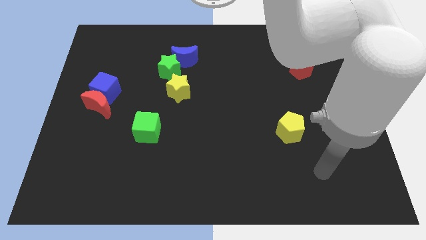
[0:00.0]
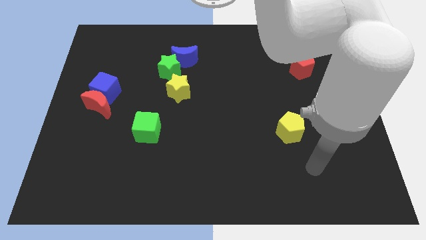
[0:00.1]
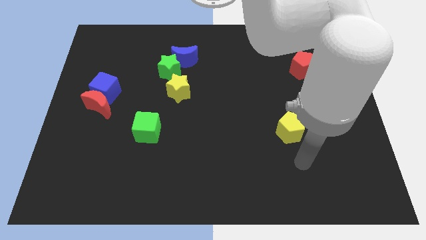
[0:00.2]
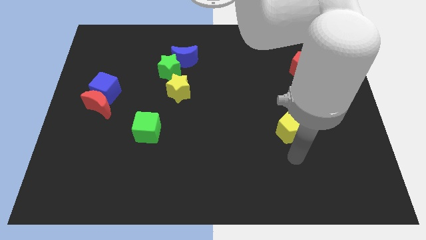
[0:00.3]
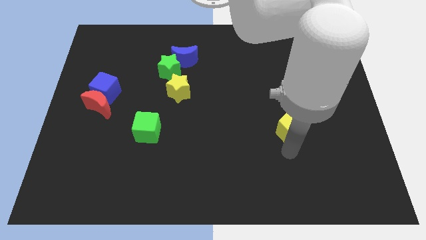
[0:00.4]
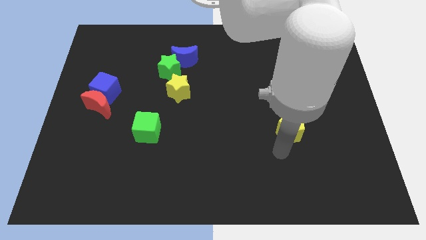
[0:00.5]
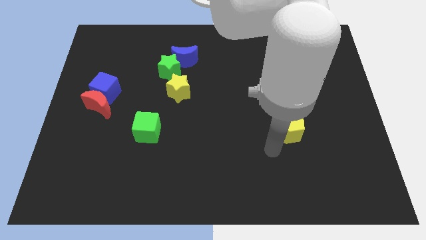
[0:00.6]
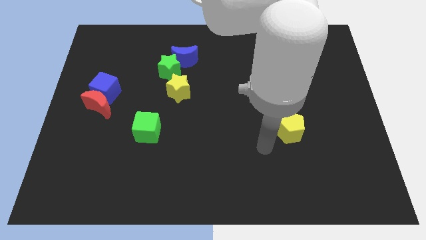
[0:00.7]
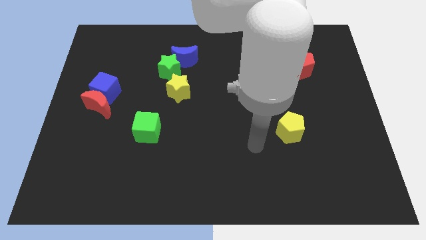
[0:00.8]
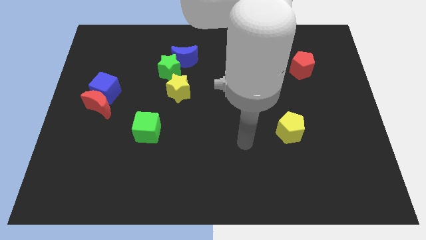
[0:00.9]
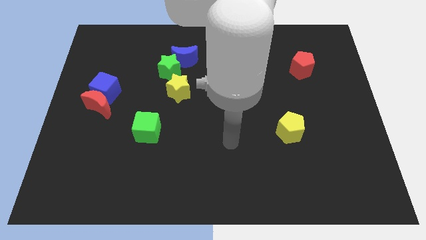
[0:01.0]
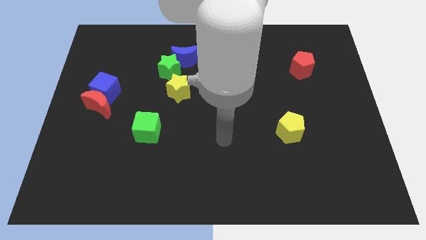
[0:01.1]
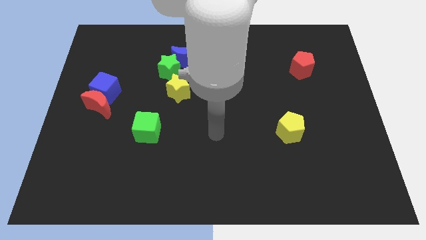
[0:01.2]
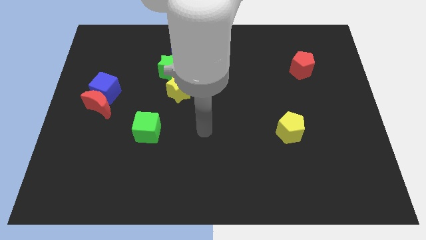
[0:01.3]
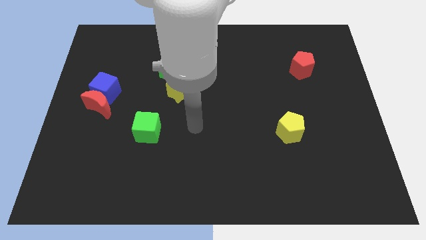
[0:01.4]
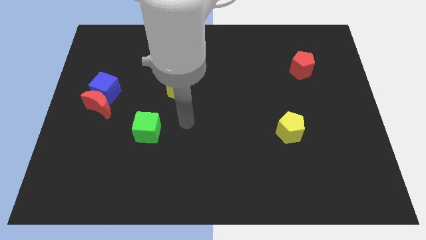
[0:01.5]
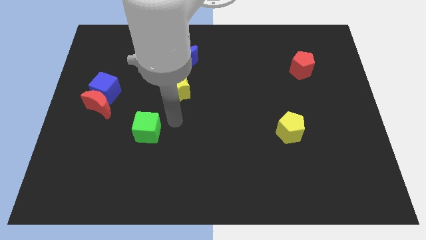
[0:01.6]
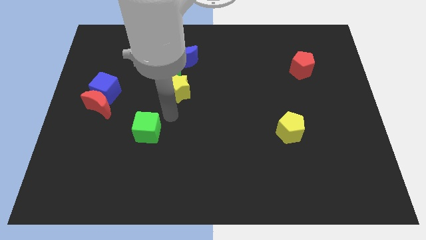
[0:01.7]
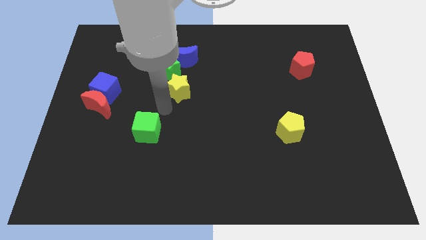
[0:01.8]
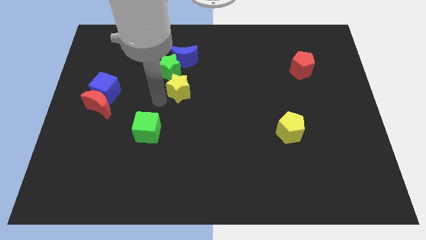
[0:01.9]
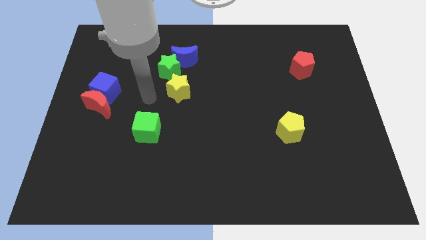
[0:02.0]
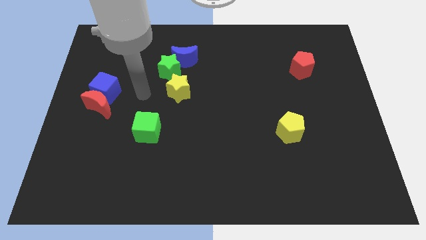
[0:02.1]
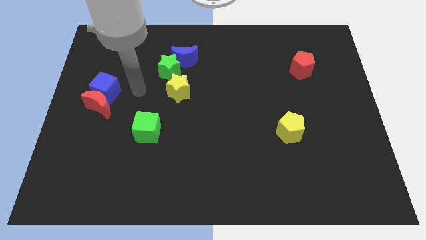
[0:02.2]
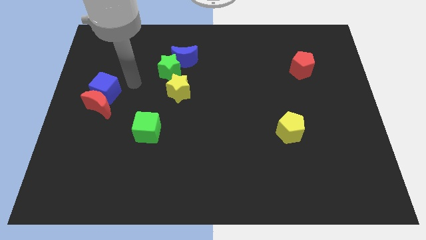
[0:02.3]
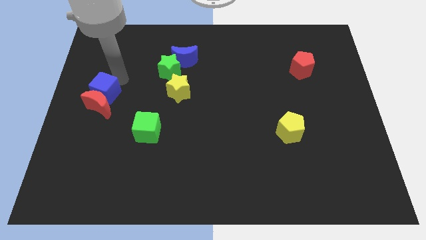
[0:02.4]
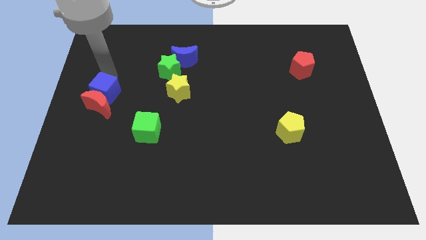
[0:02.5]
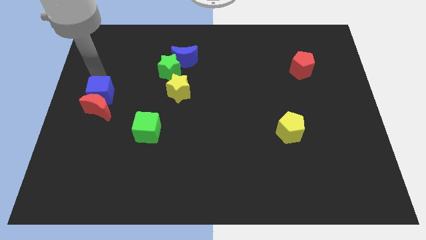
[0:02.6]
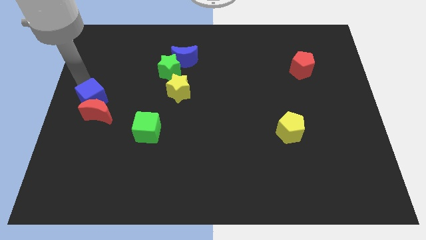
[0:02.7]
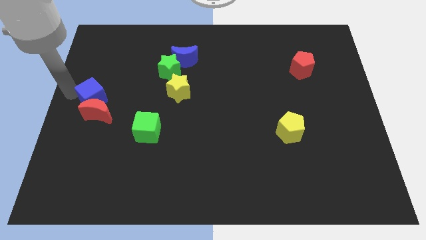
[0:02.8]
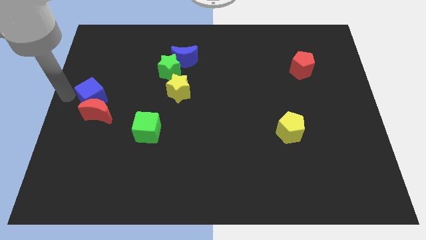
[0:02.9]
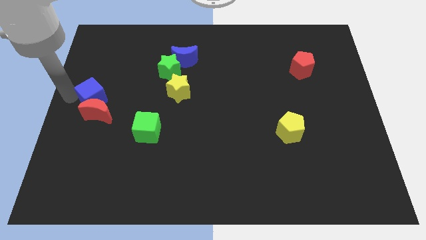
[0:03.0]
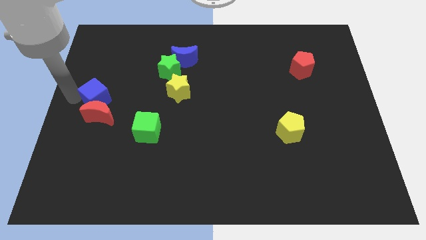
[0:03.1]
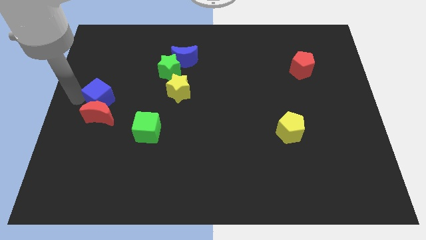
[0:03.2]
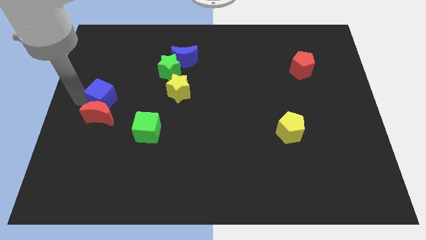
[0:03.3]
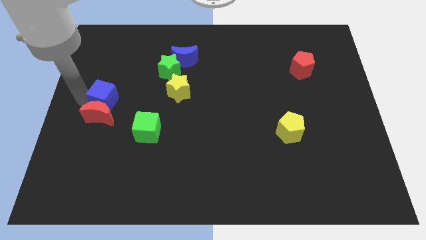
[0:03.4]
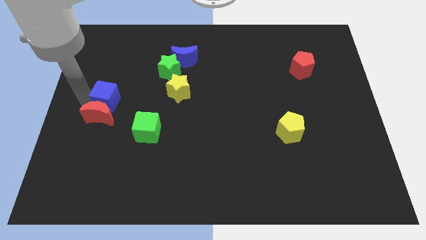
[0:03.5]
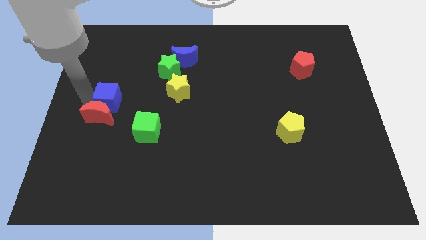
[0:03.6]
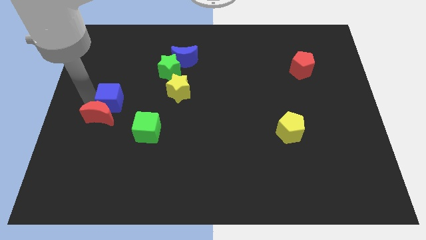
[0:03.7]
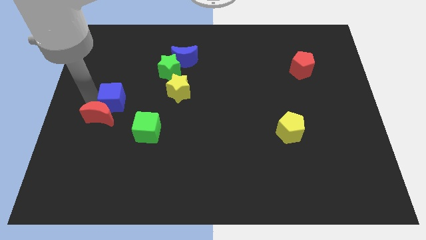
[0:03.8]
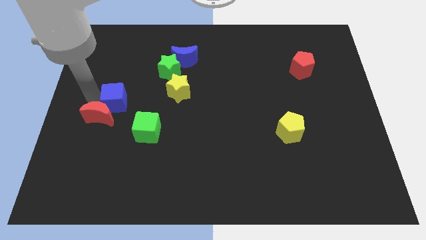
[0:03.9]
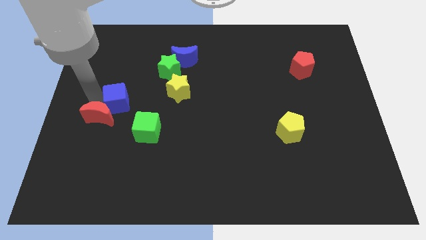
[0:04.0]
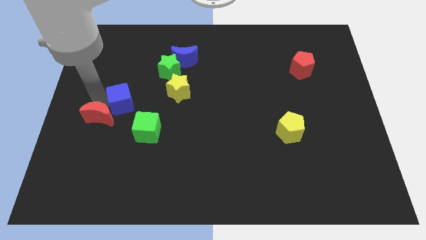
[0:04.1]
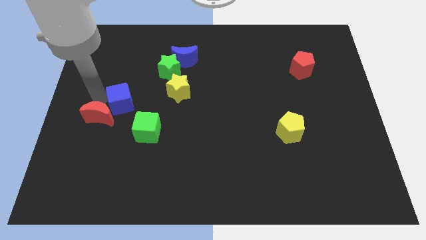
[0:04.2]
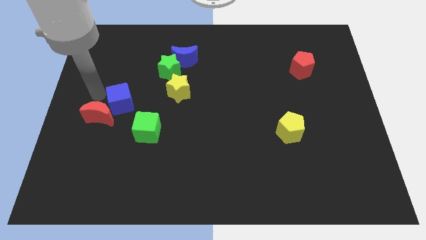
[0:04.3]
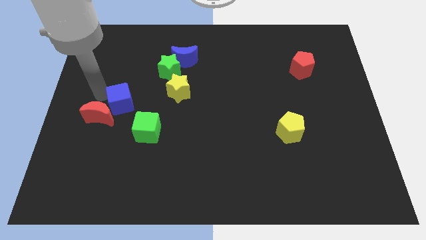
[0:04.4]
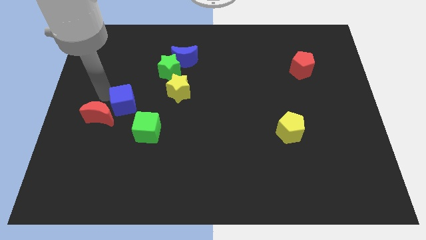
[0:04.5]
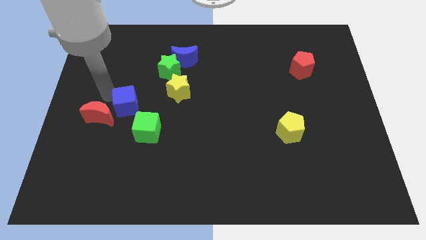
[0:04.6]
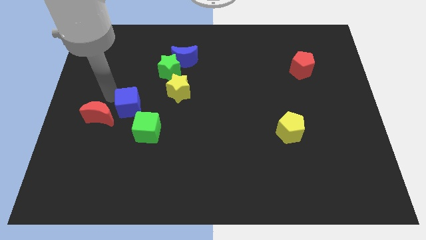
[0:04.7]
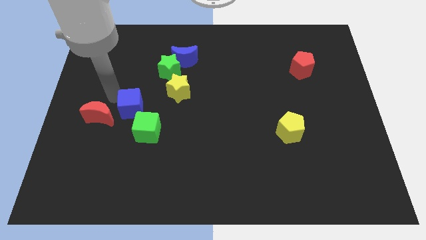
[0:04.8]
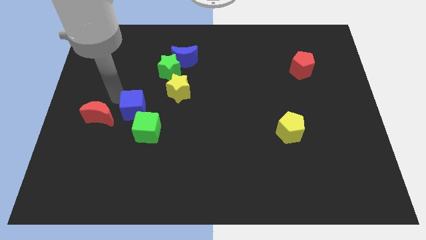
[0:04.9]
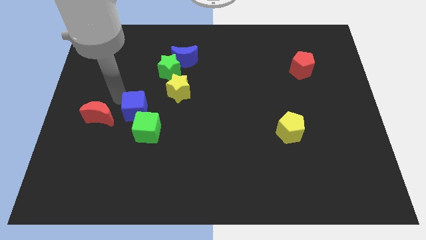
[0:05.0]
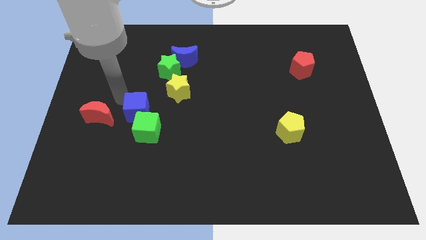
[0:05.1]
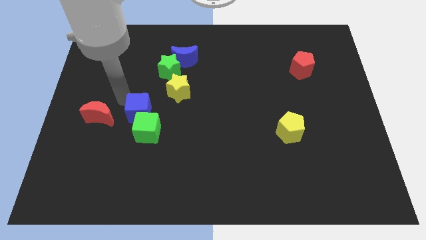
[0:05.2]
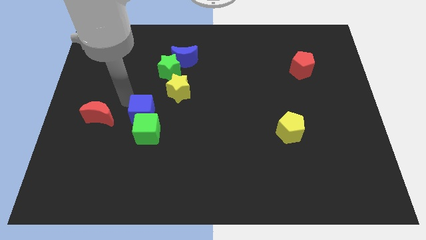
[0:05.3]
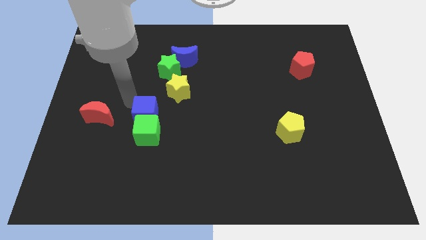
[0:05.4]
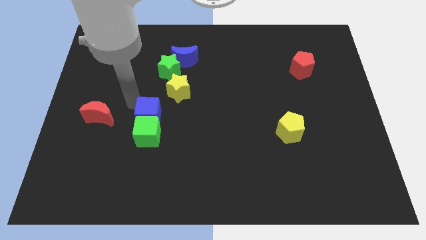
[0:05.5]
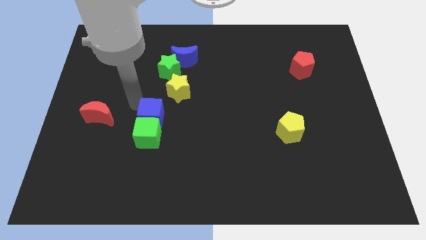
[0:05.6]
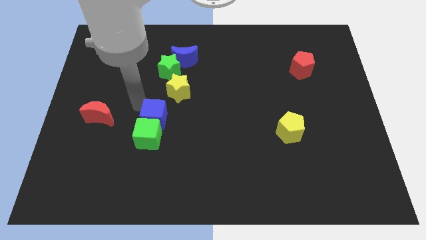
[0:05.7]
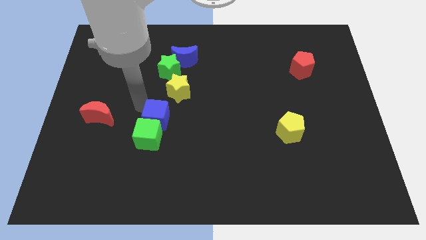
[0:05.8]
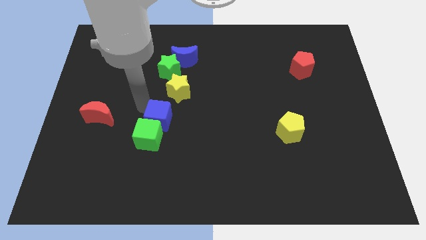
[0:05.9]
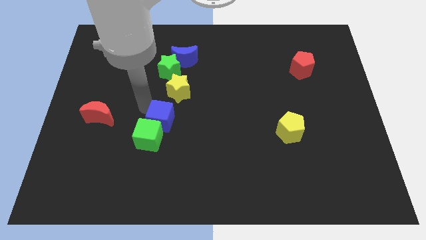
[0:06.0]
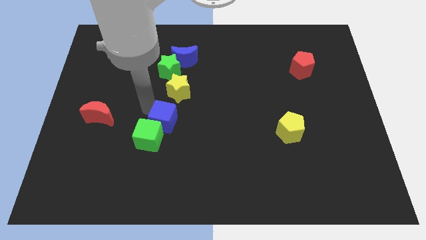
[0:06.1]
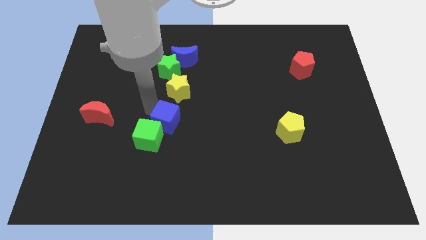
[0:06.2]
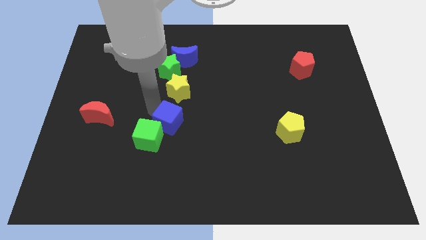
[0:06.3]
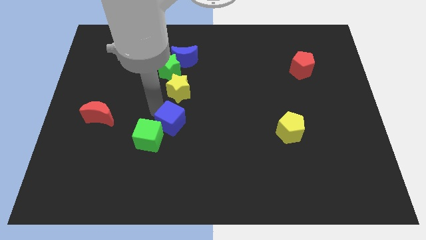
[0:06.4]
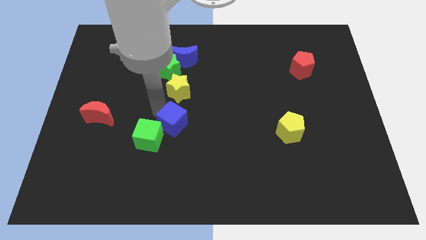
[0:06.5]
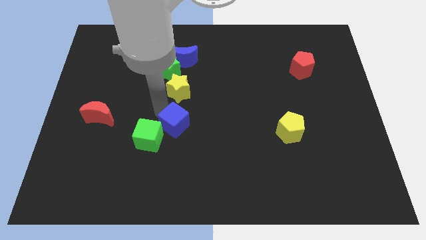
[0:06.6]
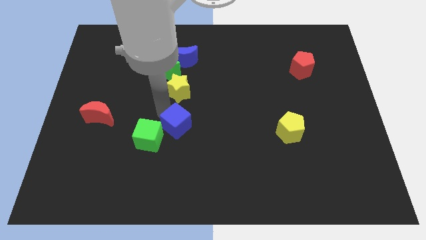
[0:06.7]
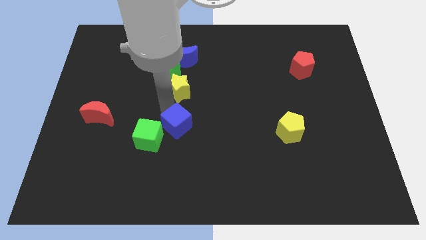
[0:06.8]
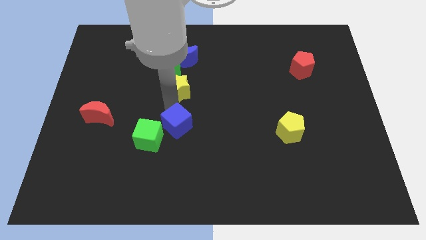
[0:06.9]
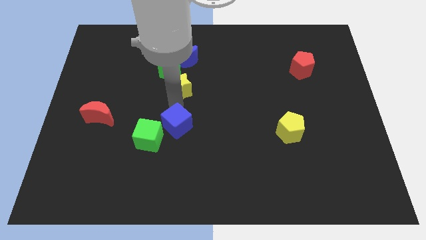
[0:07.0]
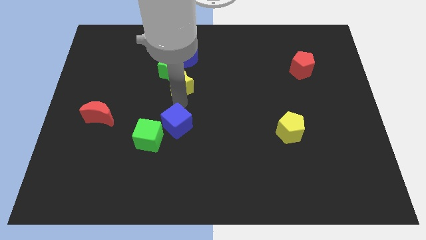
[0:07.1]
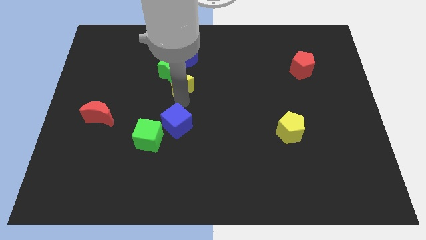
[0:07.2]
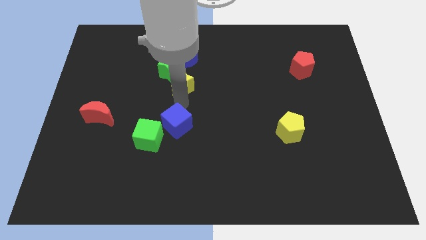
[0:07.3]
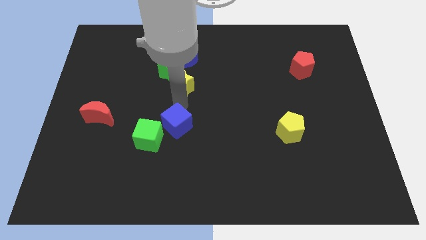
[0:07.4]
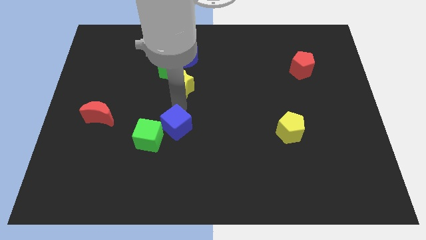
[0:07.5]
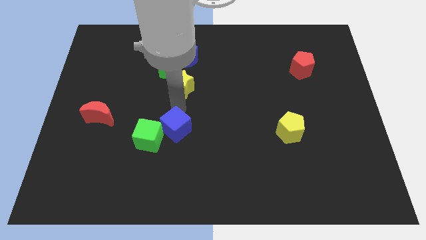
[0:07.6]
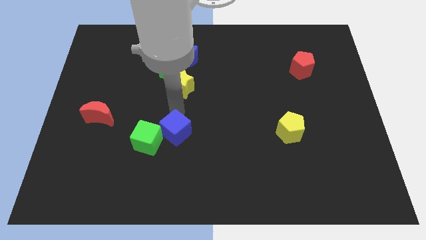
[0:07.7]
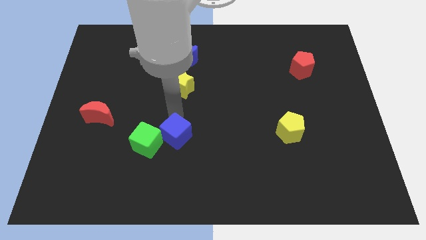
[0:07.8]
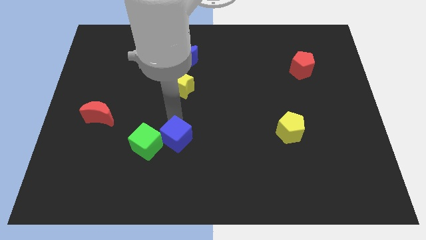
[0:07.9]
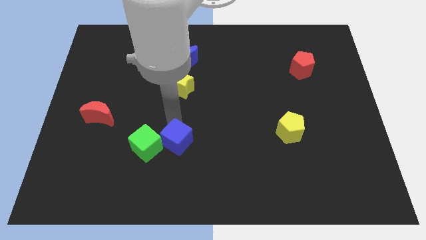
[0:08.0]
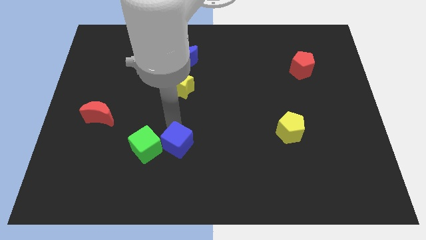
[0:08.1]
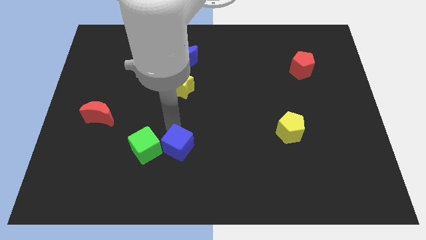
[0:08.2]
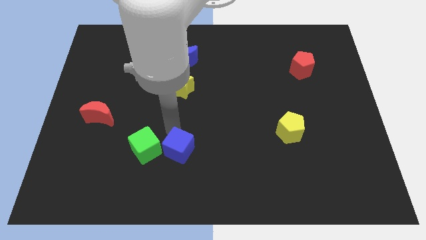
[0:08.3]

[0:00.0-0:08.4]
push the blue cube diagonally down and to the right of the green cube
